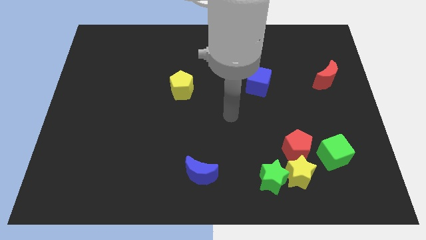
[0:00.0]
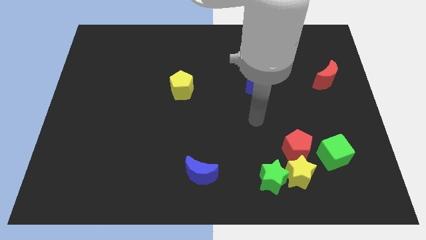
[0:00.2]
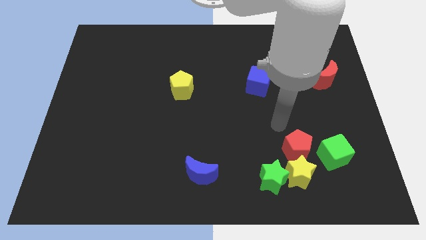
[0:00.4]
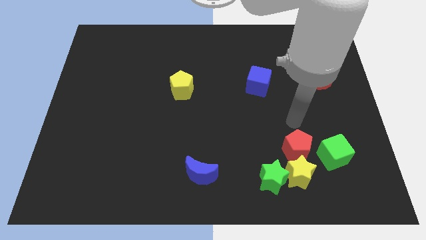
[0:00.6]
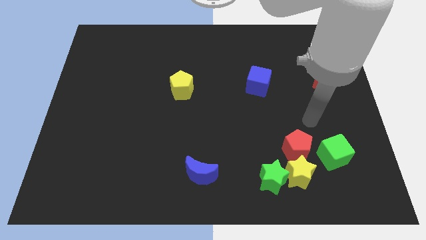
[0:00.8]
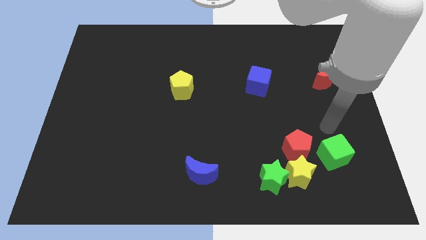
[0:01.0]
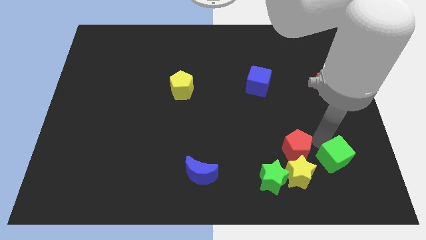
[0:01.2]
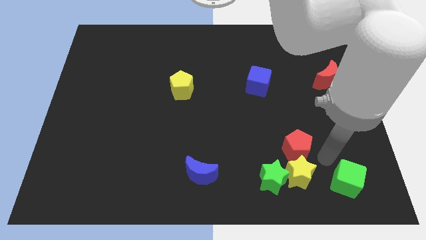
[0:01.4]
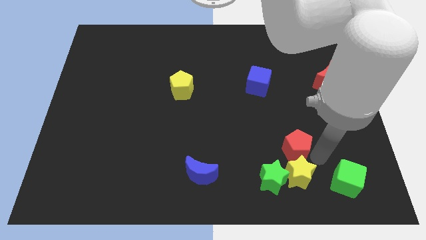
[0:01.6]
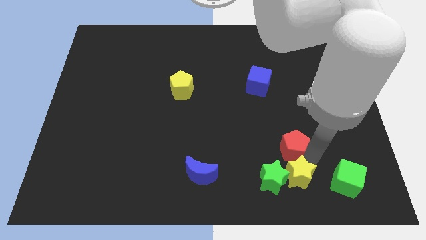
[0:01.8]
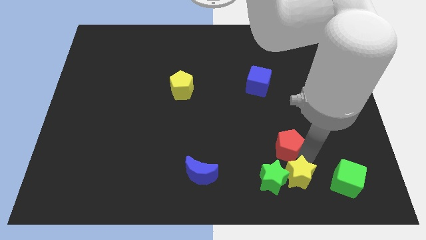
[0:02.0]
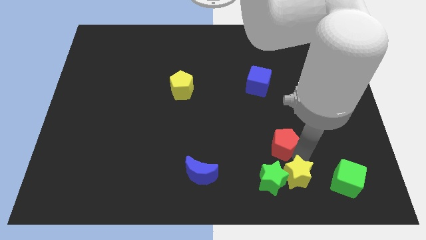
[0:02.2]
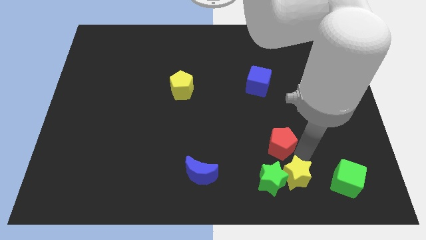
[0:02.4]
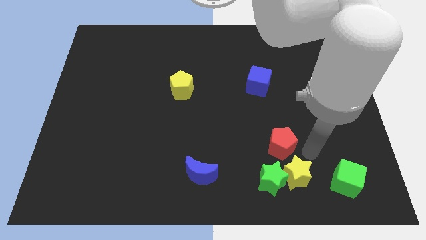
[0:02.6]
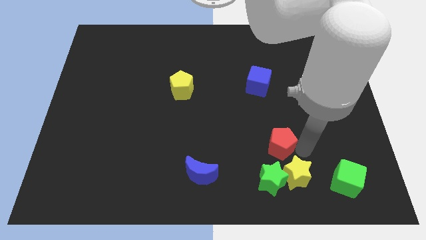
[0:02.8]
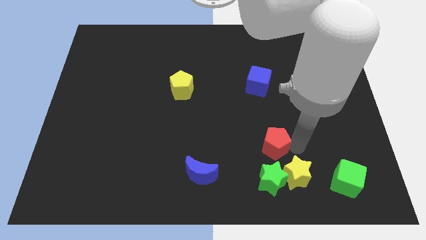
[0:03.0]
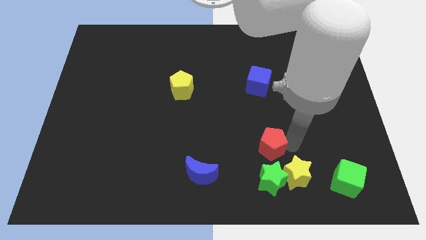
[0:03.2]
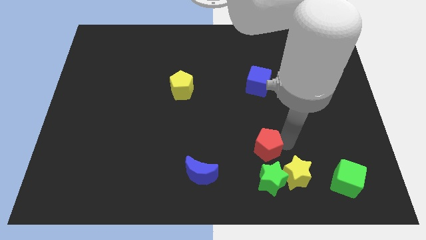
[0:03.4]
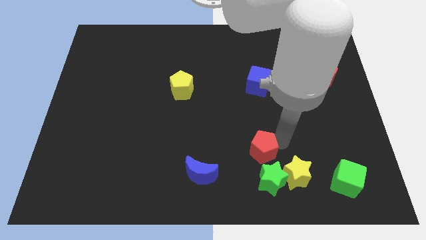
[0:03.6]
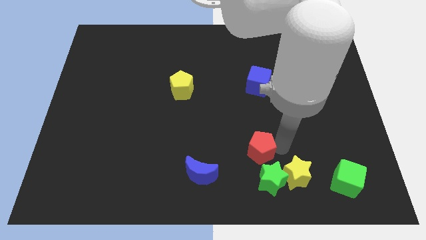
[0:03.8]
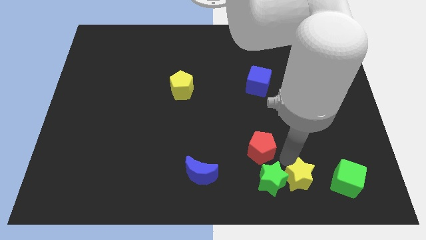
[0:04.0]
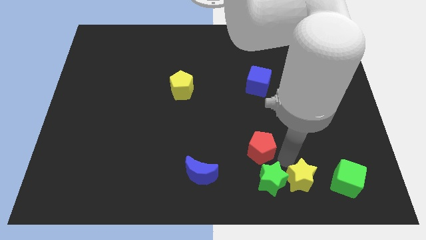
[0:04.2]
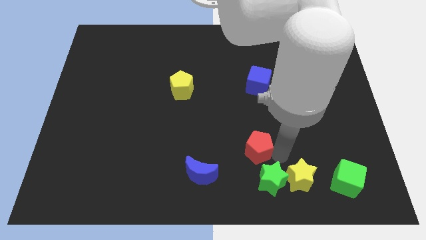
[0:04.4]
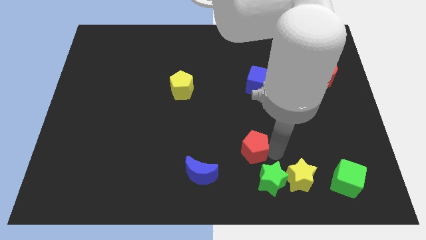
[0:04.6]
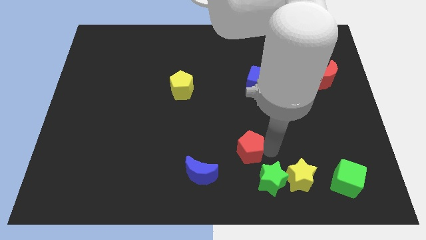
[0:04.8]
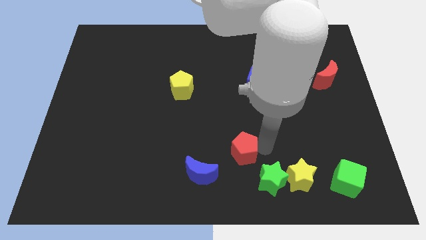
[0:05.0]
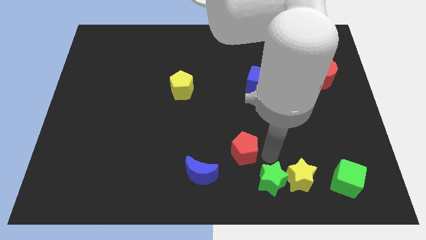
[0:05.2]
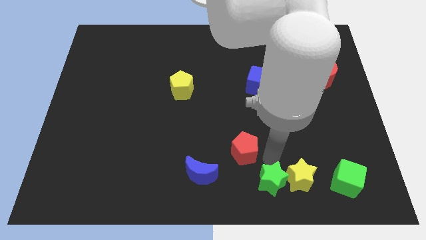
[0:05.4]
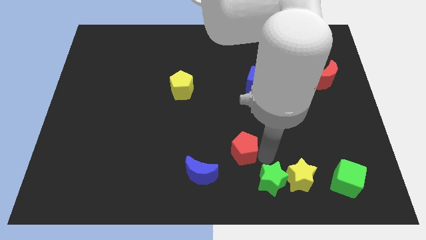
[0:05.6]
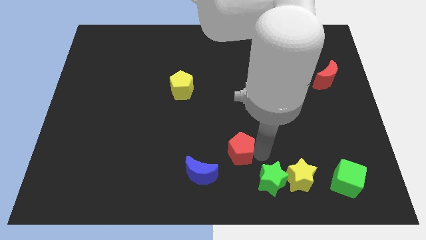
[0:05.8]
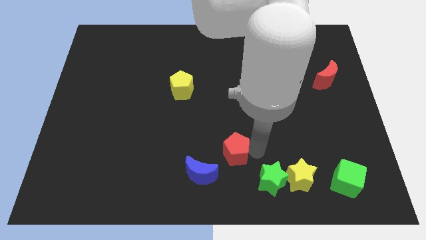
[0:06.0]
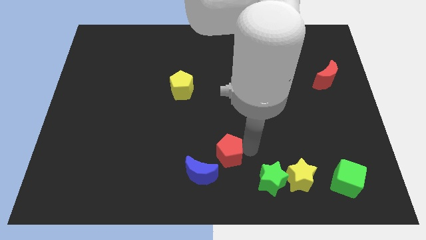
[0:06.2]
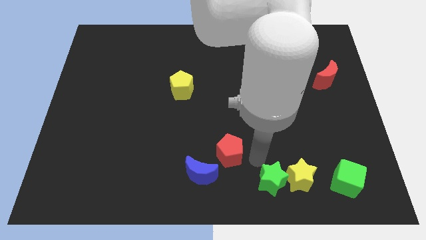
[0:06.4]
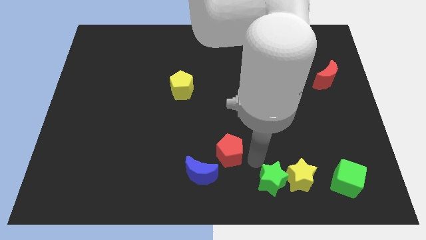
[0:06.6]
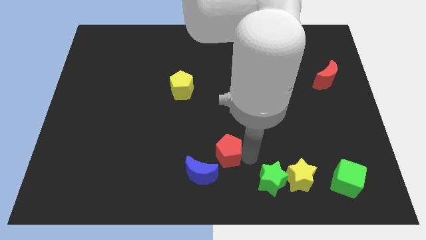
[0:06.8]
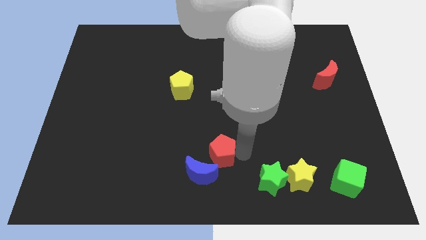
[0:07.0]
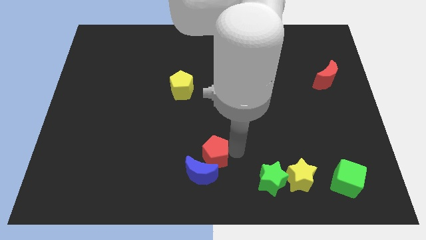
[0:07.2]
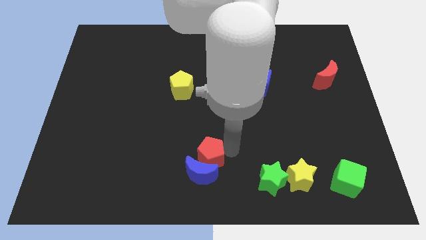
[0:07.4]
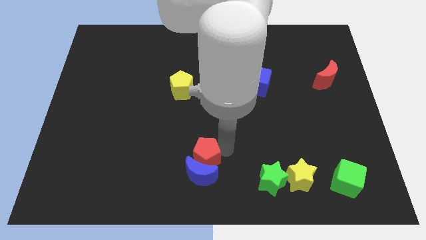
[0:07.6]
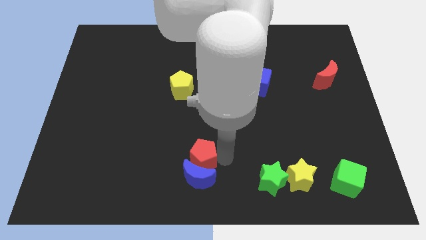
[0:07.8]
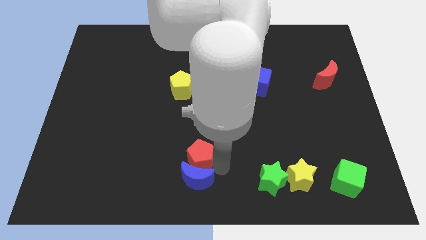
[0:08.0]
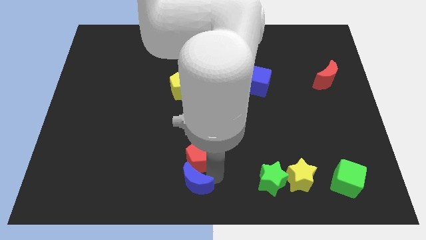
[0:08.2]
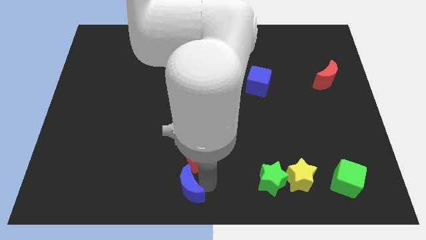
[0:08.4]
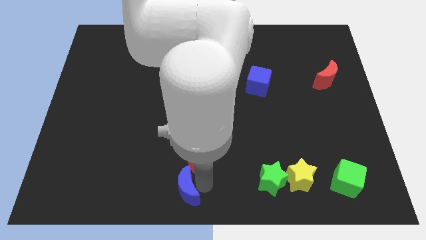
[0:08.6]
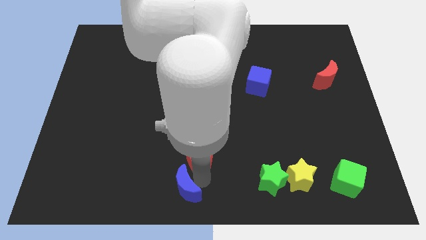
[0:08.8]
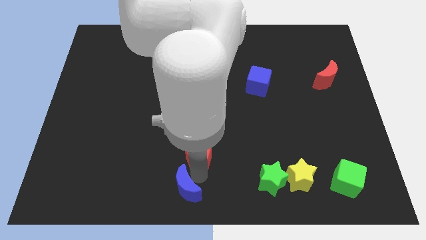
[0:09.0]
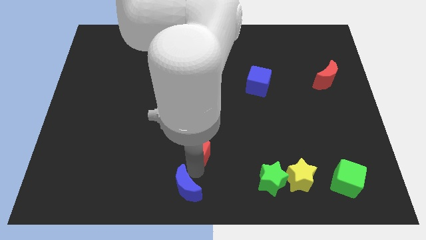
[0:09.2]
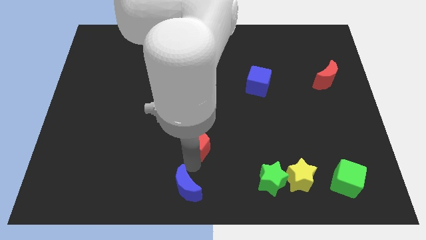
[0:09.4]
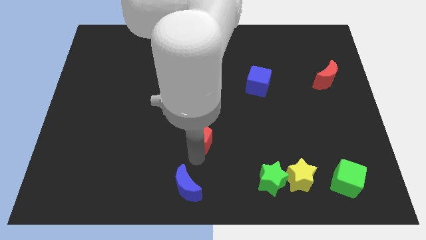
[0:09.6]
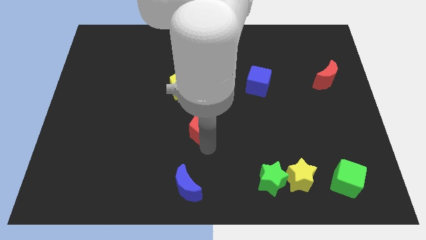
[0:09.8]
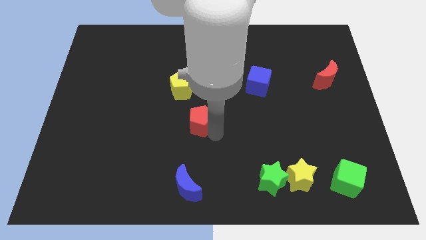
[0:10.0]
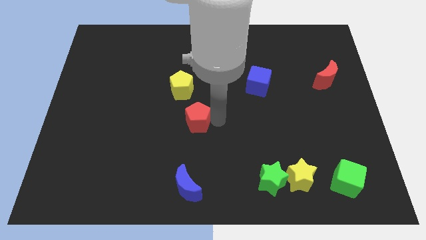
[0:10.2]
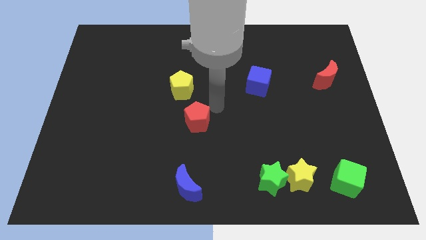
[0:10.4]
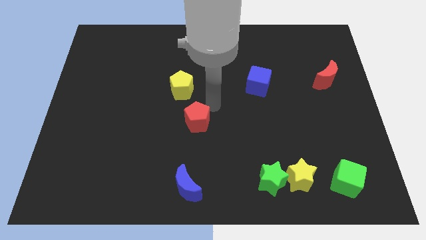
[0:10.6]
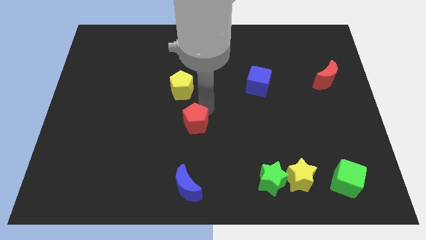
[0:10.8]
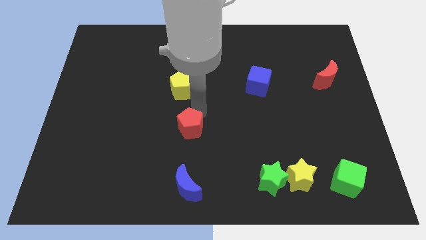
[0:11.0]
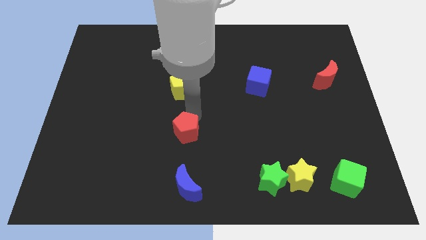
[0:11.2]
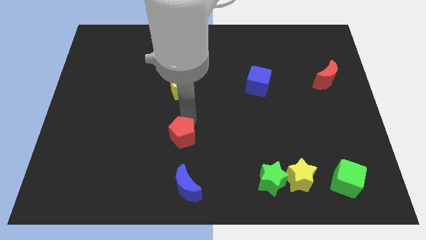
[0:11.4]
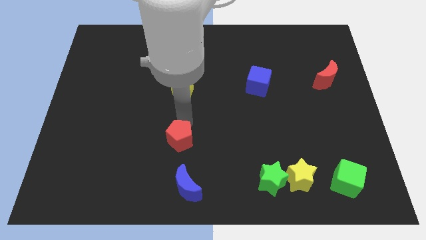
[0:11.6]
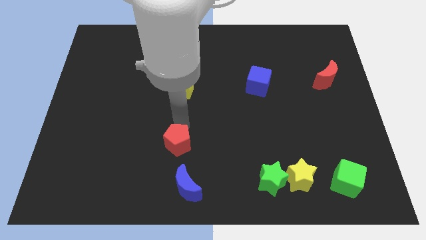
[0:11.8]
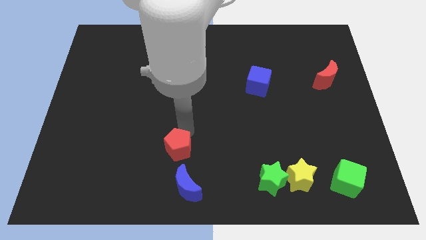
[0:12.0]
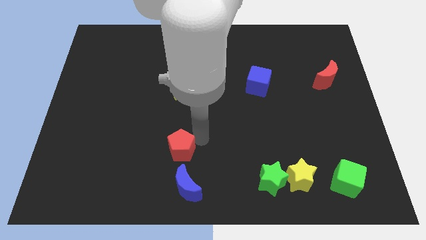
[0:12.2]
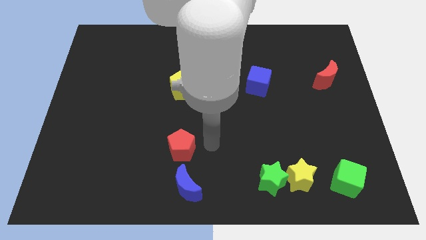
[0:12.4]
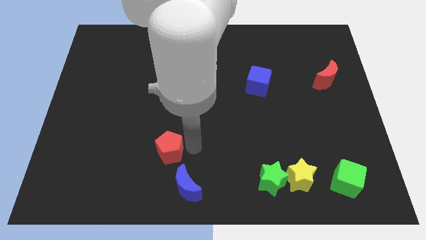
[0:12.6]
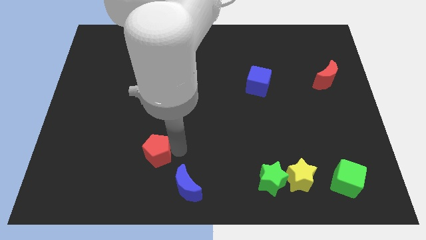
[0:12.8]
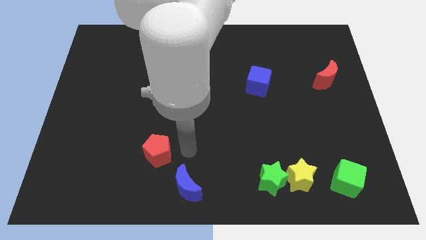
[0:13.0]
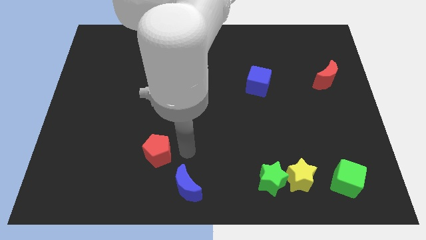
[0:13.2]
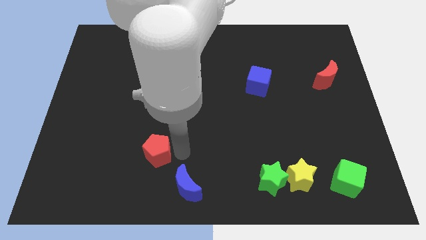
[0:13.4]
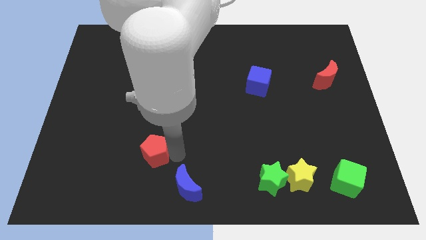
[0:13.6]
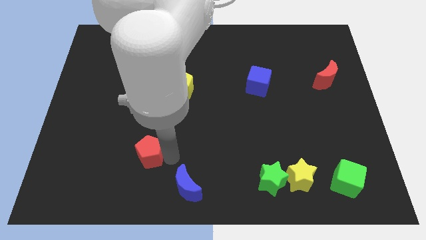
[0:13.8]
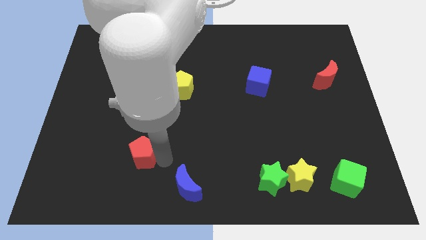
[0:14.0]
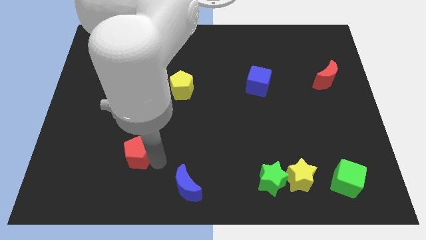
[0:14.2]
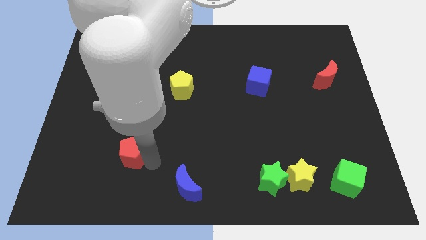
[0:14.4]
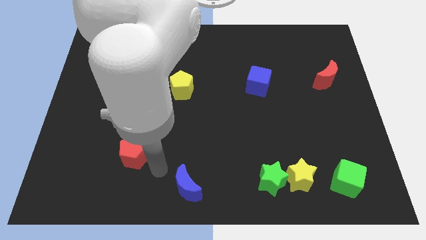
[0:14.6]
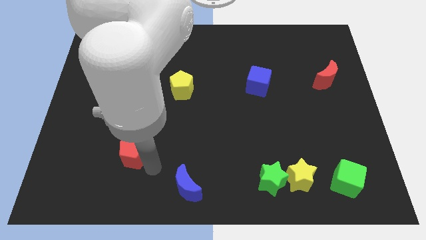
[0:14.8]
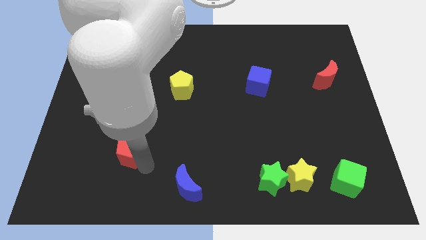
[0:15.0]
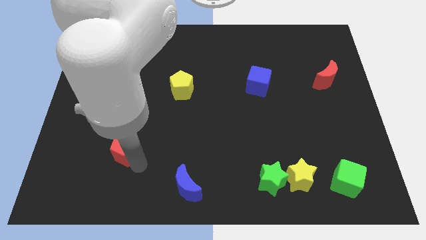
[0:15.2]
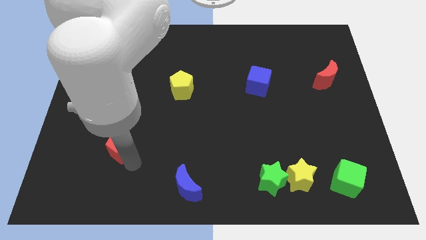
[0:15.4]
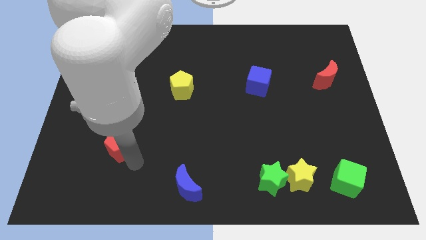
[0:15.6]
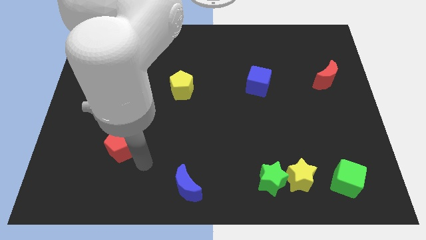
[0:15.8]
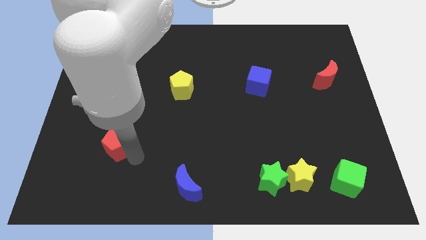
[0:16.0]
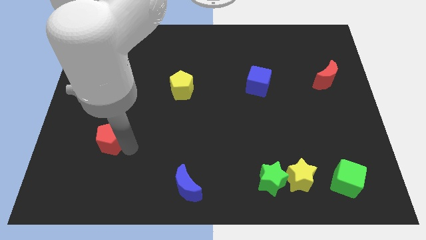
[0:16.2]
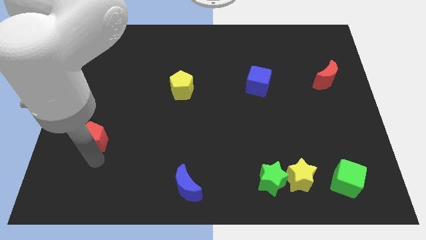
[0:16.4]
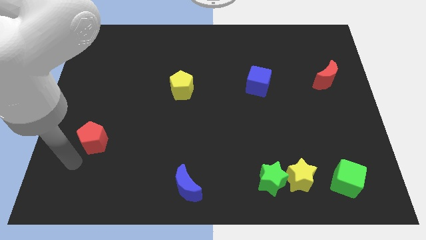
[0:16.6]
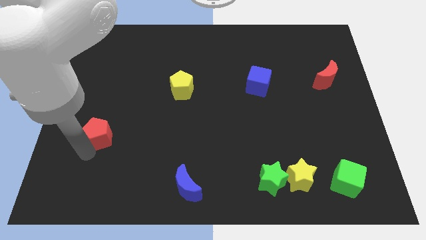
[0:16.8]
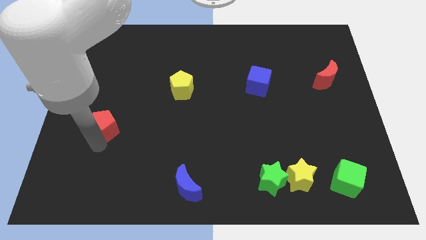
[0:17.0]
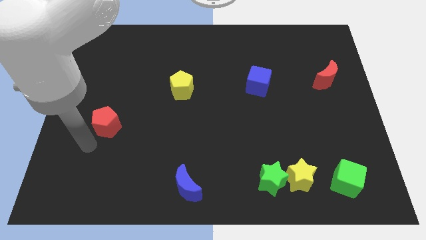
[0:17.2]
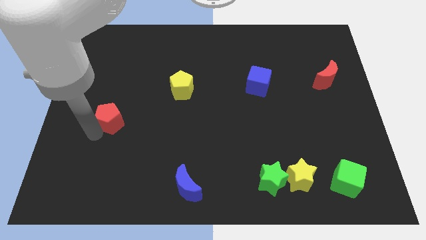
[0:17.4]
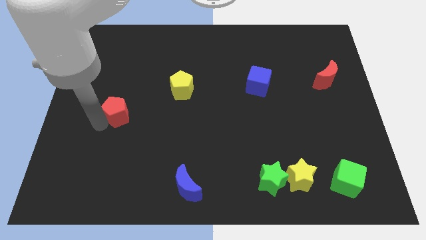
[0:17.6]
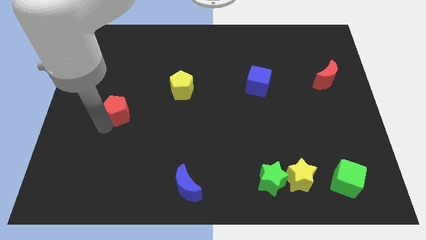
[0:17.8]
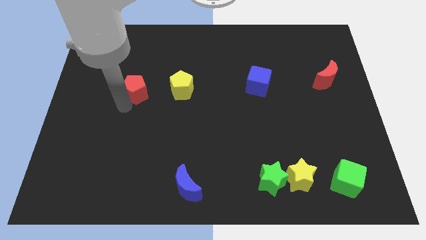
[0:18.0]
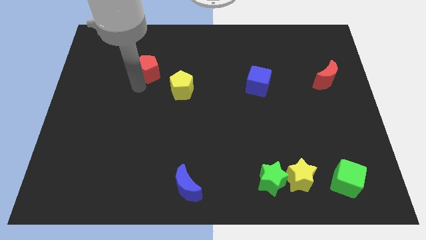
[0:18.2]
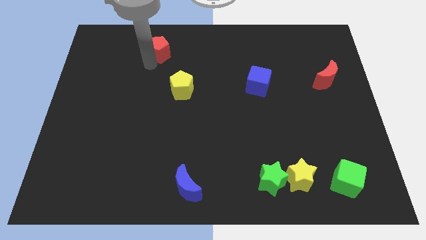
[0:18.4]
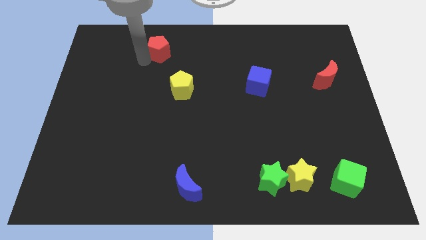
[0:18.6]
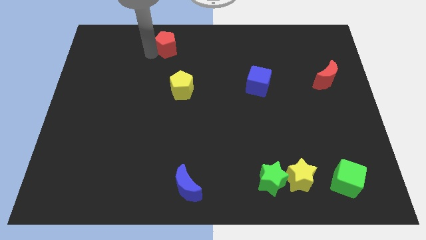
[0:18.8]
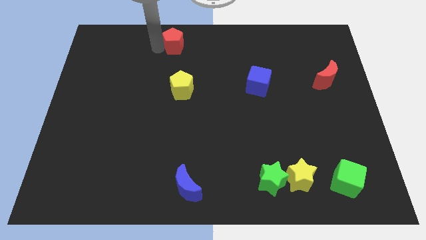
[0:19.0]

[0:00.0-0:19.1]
push the red pentagon to the top
